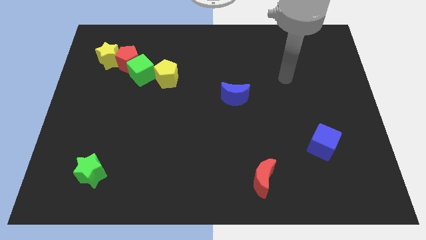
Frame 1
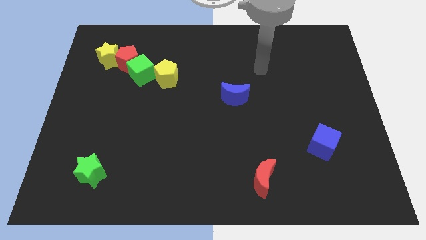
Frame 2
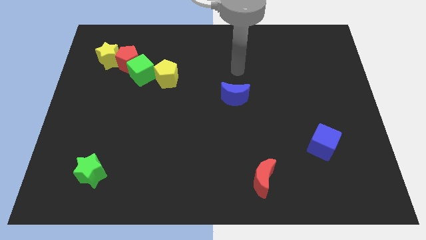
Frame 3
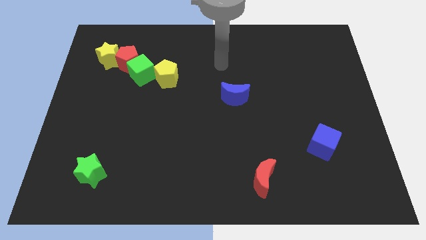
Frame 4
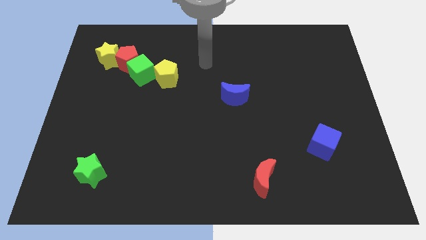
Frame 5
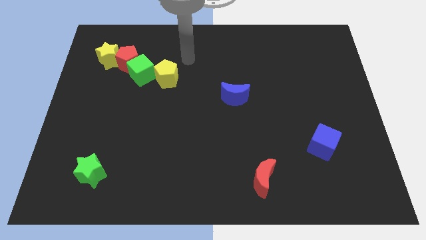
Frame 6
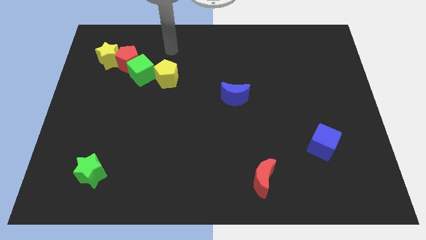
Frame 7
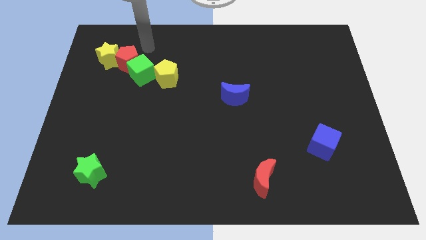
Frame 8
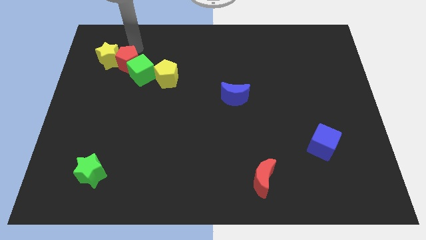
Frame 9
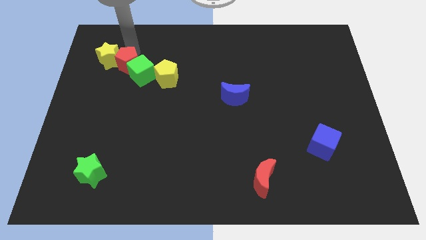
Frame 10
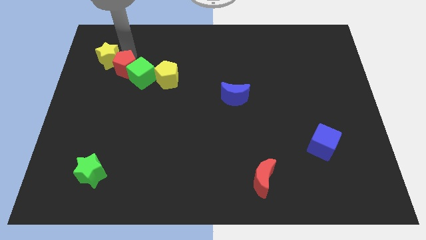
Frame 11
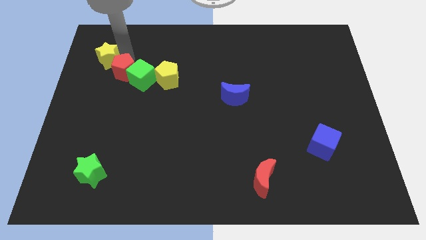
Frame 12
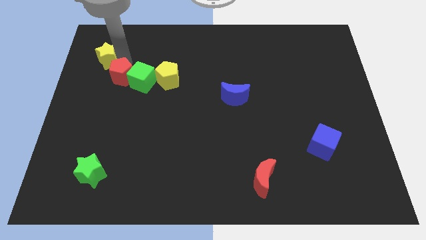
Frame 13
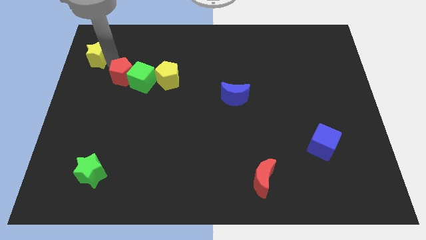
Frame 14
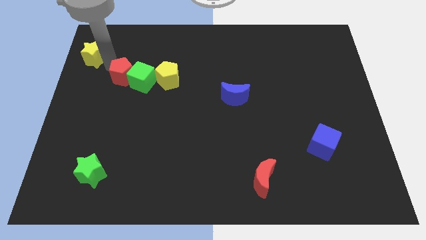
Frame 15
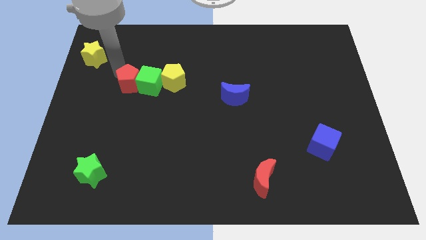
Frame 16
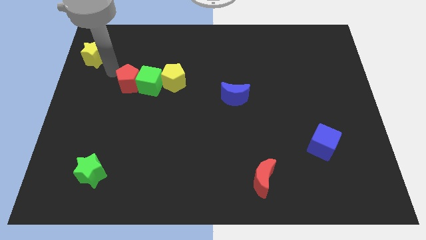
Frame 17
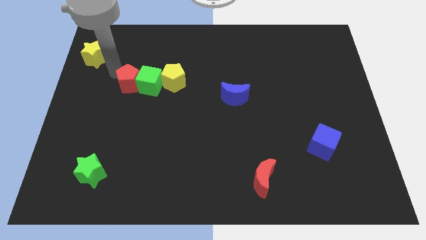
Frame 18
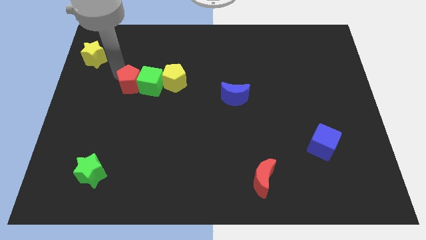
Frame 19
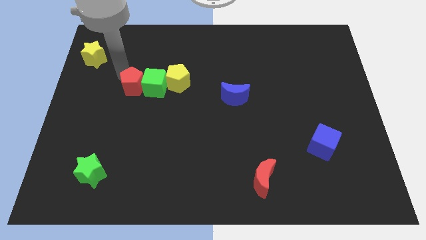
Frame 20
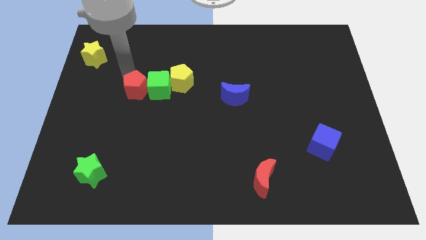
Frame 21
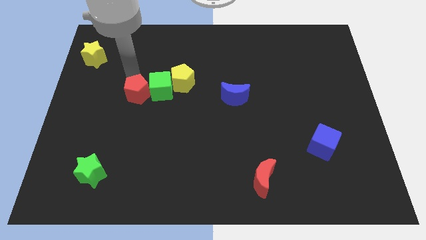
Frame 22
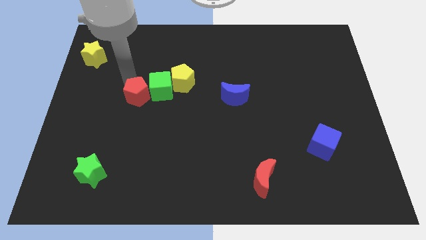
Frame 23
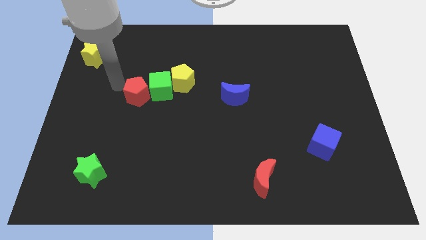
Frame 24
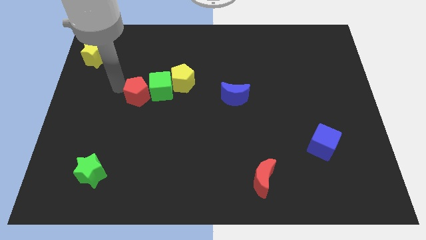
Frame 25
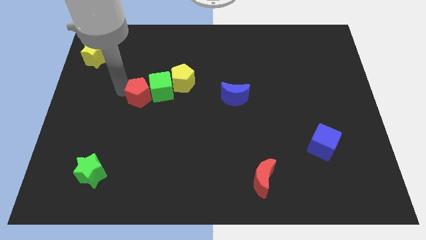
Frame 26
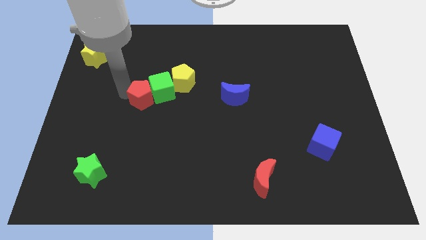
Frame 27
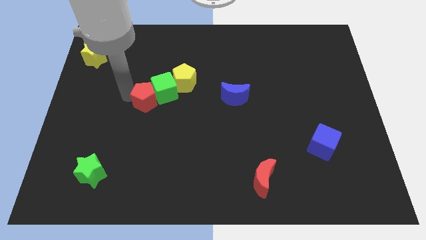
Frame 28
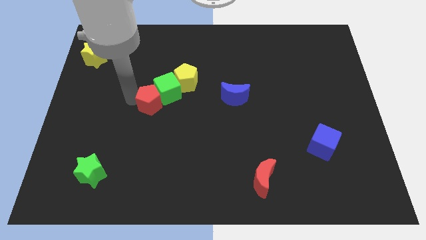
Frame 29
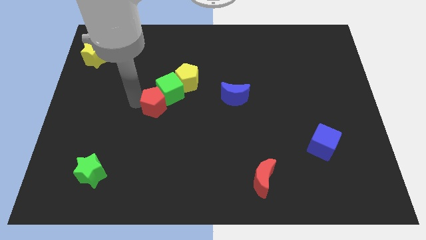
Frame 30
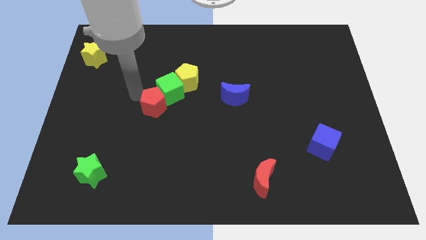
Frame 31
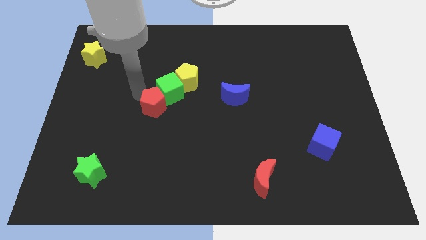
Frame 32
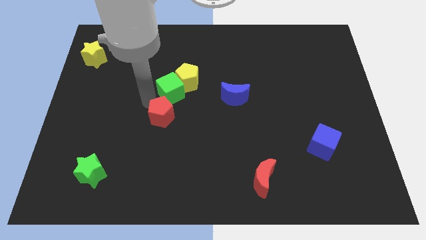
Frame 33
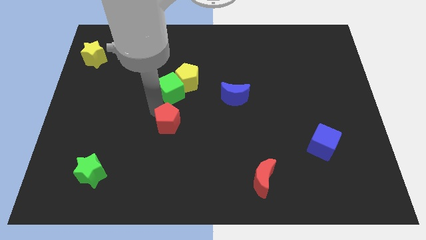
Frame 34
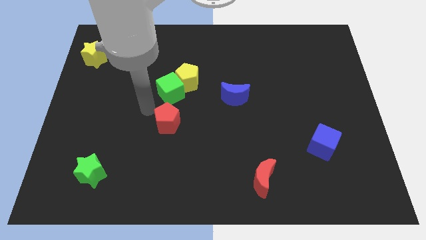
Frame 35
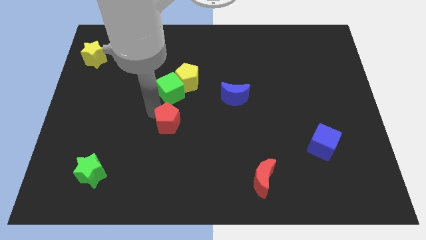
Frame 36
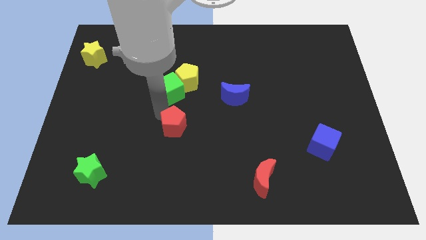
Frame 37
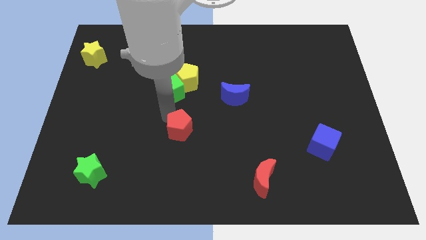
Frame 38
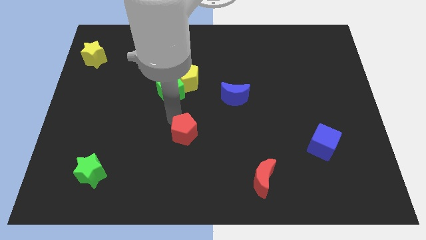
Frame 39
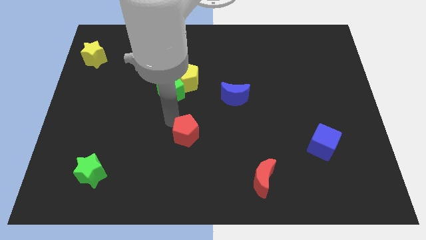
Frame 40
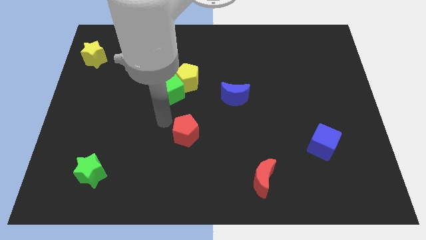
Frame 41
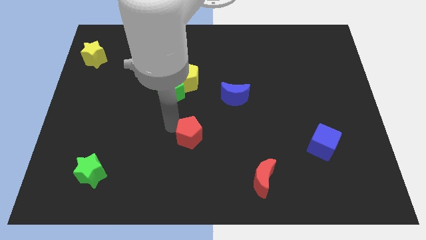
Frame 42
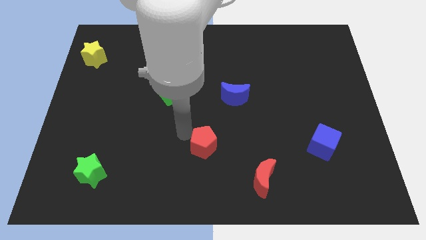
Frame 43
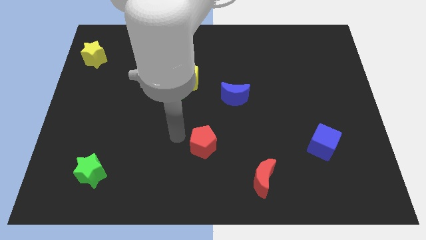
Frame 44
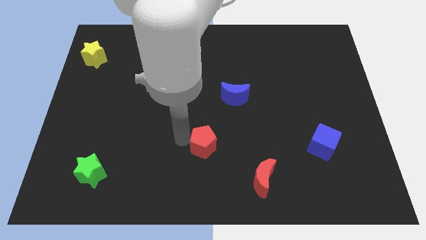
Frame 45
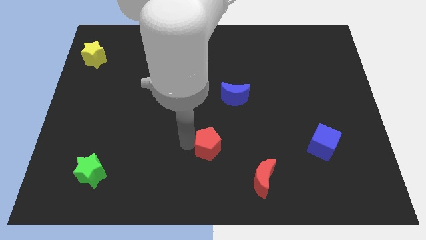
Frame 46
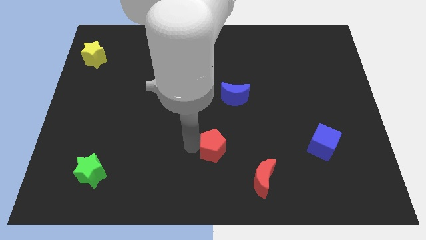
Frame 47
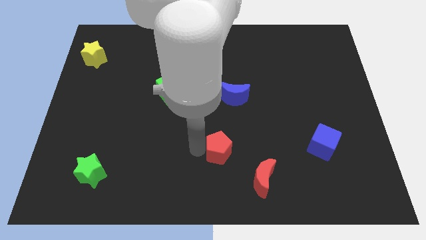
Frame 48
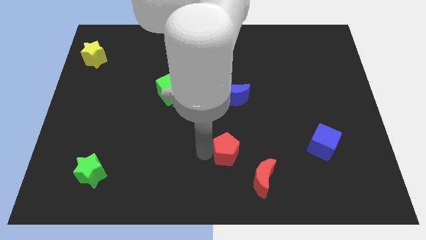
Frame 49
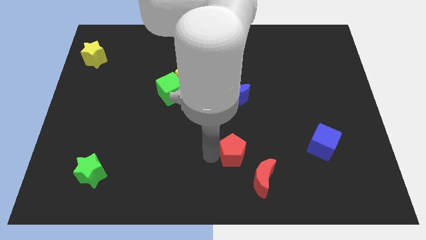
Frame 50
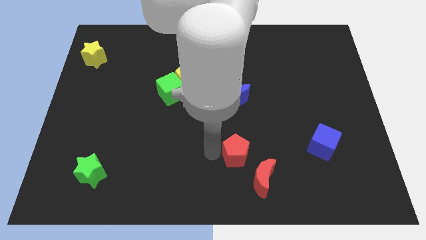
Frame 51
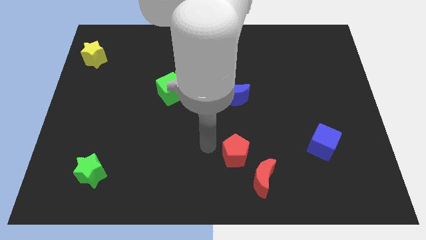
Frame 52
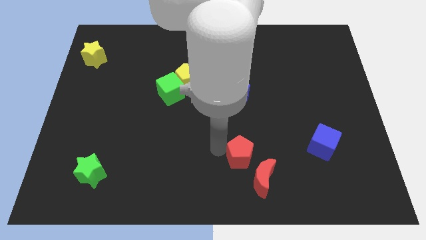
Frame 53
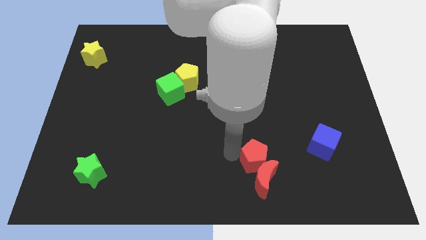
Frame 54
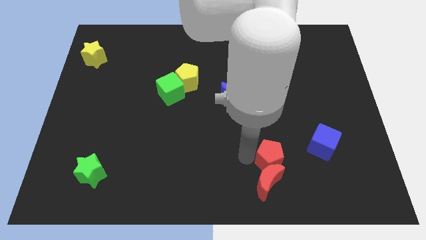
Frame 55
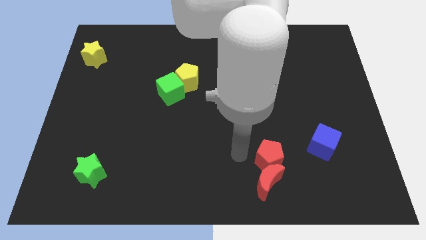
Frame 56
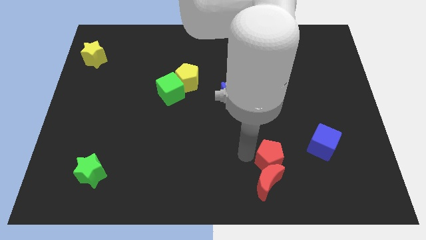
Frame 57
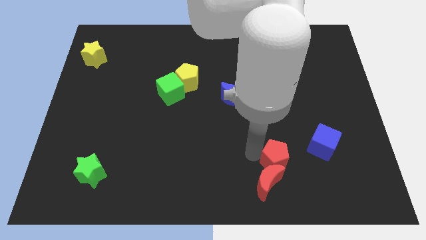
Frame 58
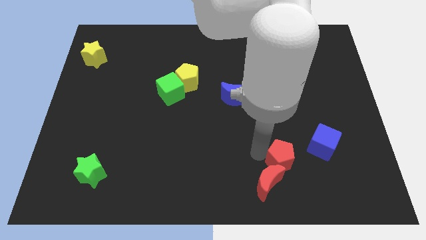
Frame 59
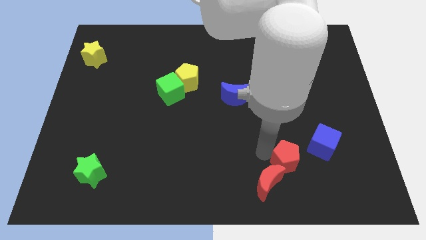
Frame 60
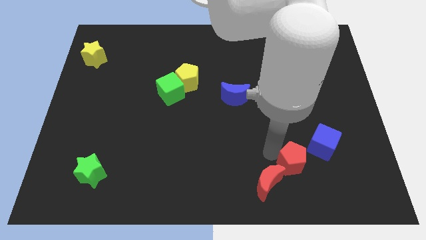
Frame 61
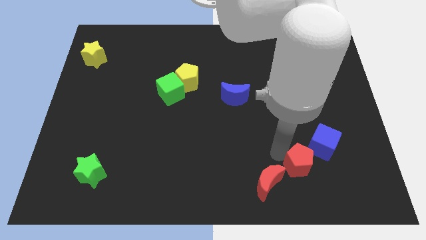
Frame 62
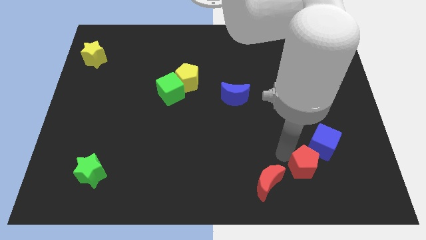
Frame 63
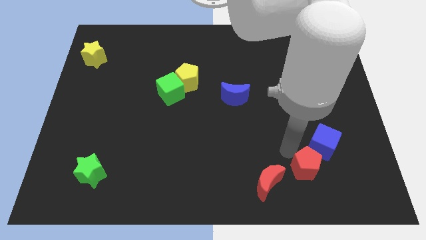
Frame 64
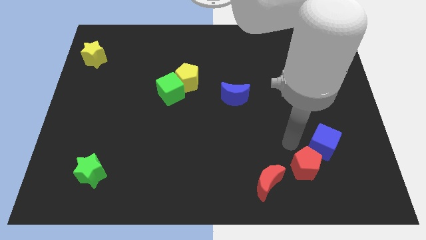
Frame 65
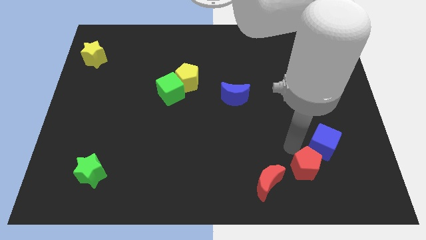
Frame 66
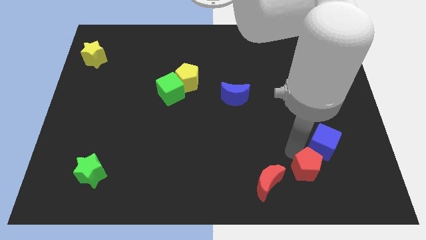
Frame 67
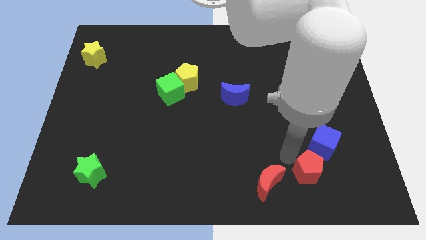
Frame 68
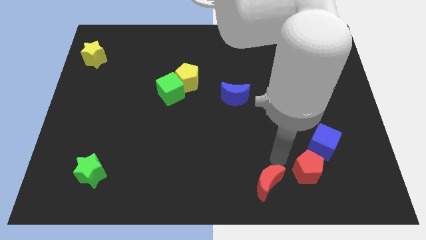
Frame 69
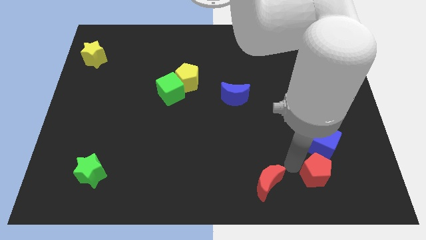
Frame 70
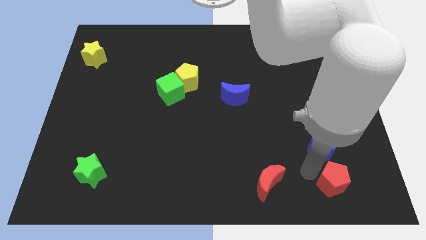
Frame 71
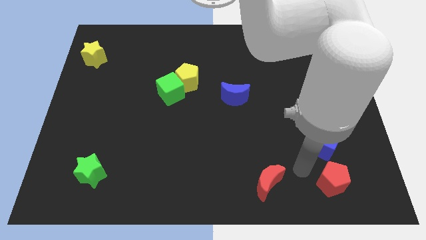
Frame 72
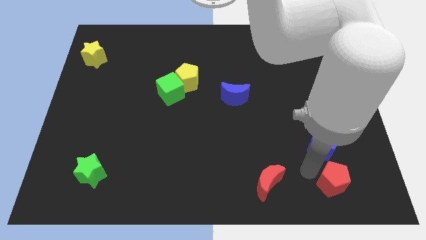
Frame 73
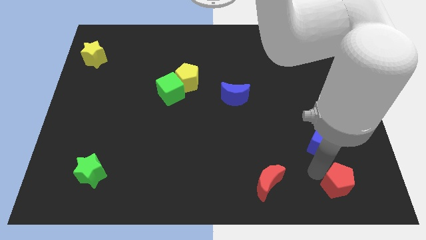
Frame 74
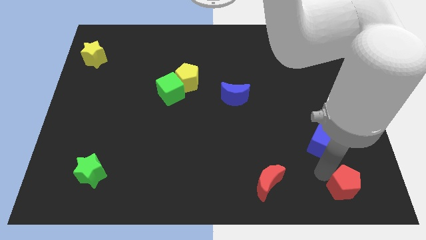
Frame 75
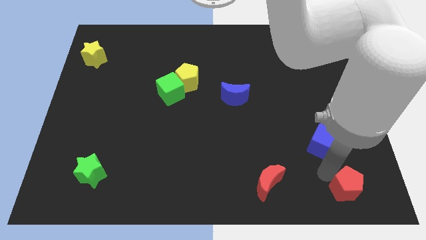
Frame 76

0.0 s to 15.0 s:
slide the red pentagon to the bottom right corner

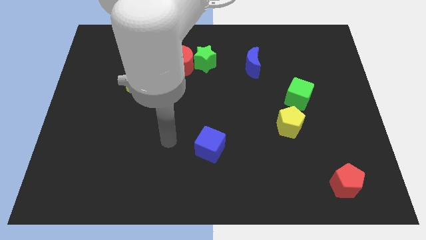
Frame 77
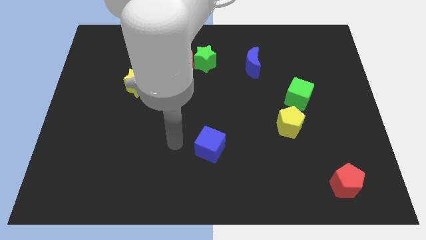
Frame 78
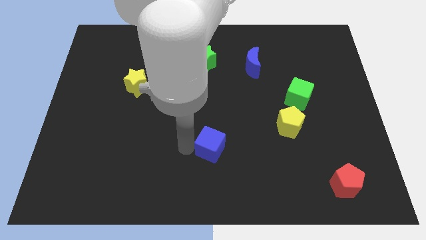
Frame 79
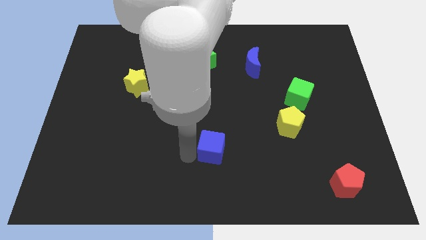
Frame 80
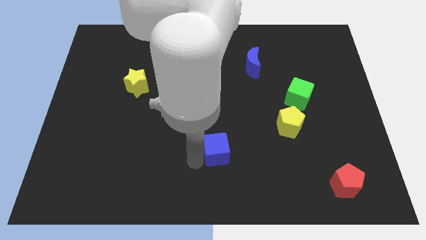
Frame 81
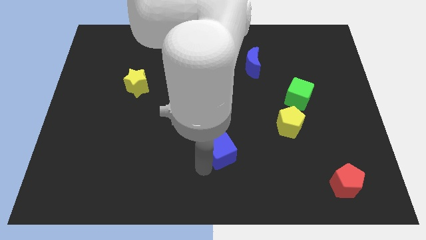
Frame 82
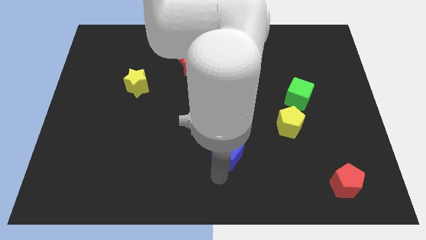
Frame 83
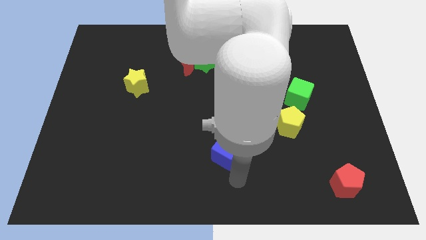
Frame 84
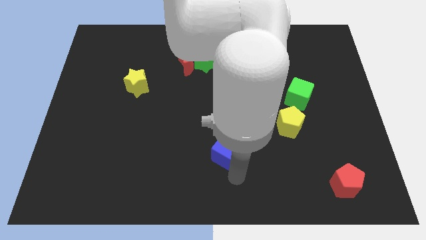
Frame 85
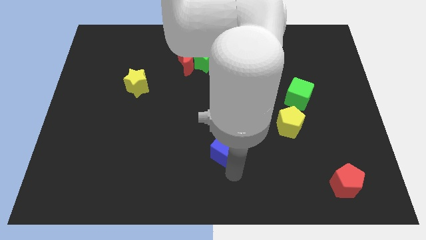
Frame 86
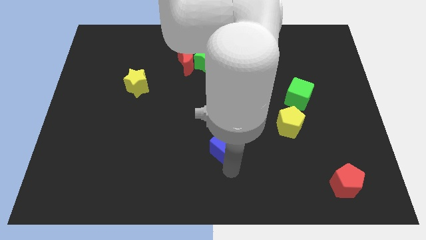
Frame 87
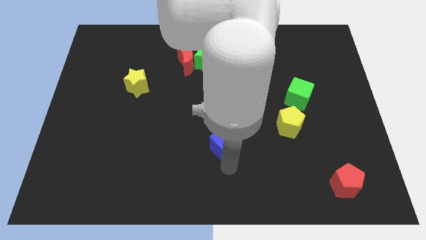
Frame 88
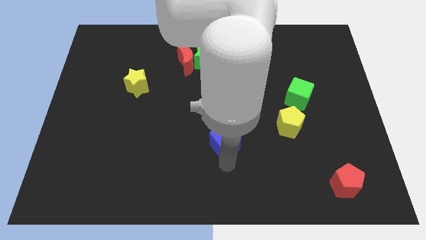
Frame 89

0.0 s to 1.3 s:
move the blue cube to the center
